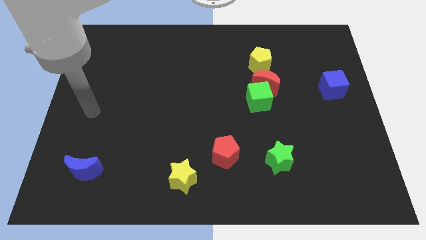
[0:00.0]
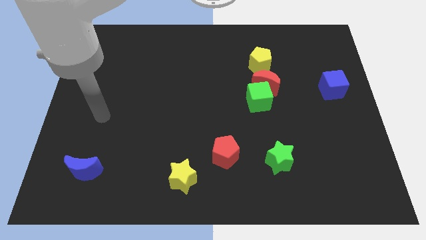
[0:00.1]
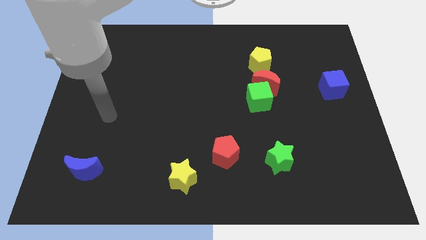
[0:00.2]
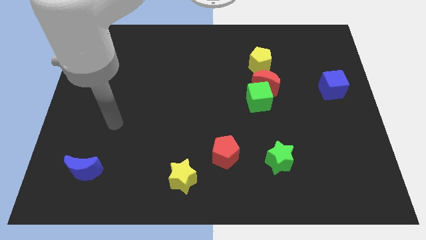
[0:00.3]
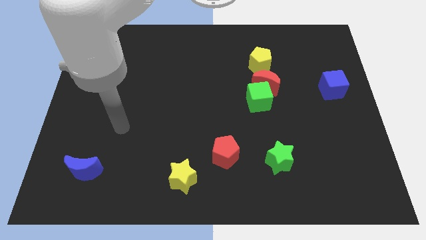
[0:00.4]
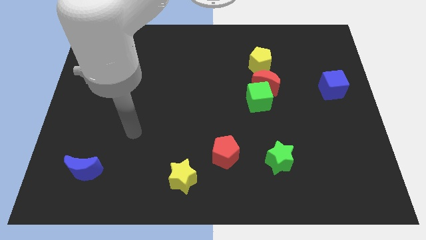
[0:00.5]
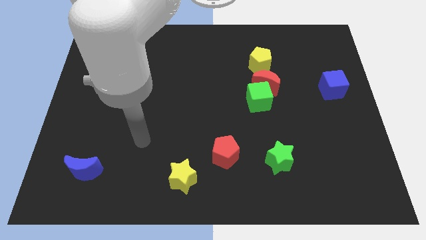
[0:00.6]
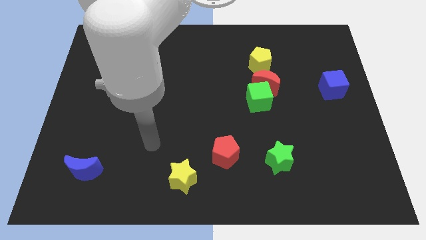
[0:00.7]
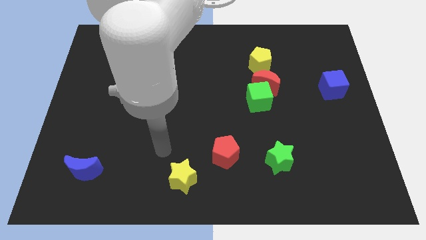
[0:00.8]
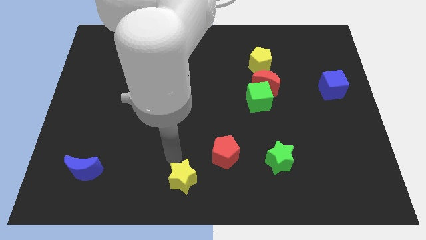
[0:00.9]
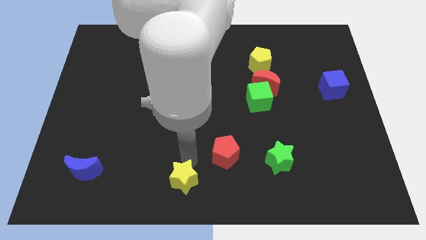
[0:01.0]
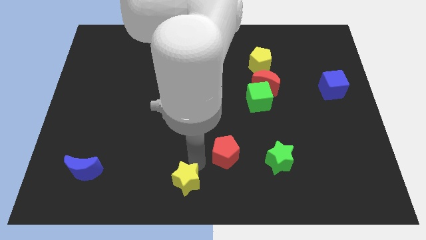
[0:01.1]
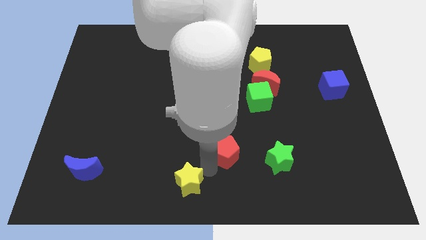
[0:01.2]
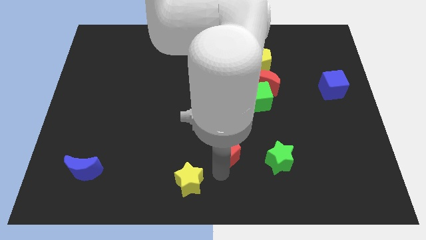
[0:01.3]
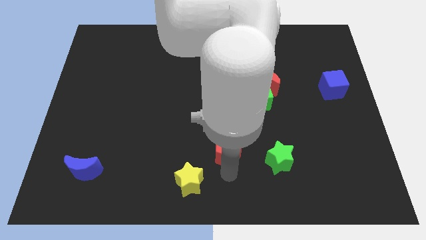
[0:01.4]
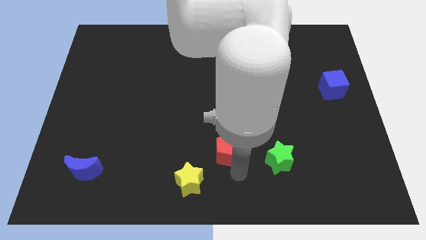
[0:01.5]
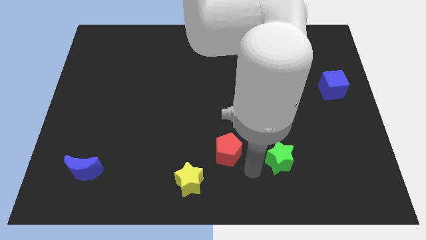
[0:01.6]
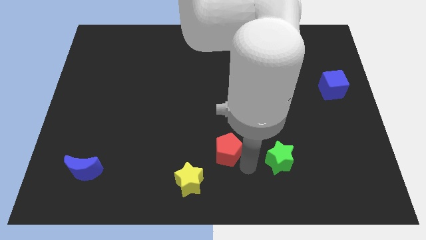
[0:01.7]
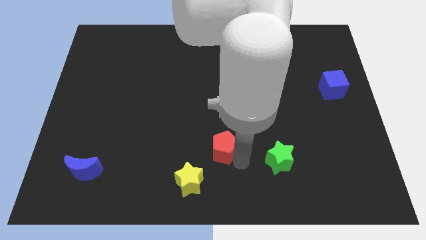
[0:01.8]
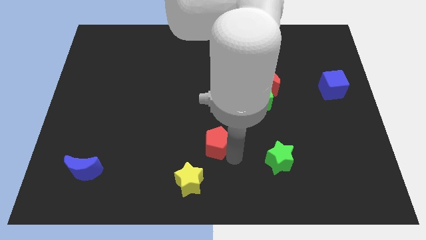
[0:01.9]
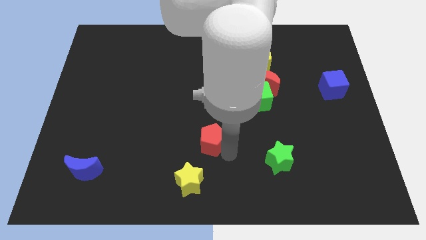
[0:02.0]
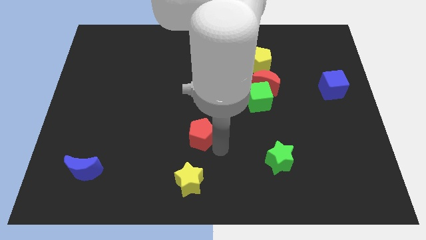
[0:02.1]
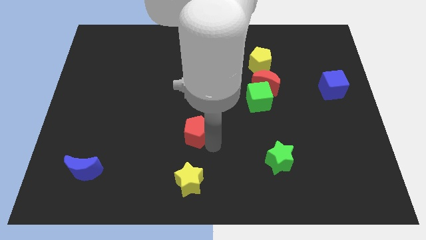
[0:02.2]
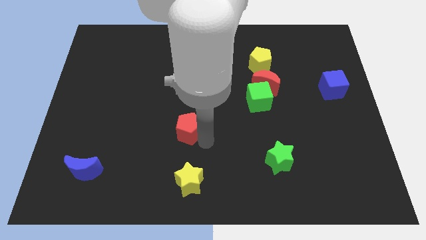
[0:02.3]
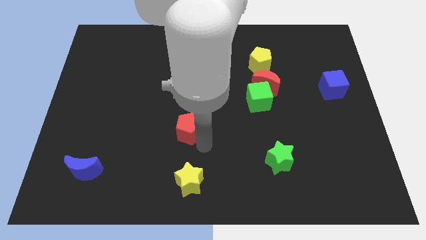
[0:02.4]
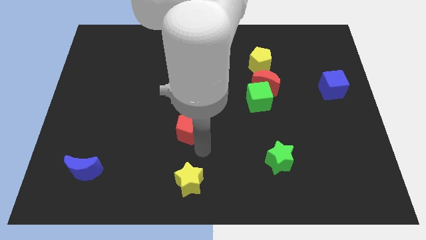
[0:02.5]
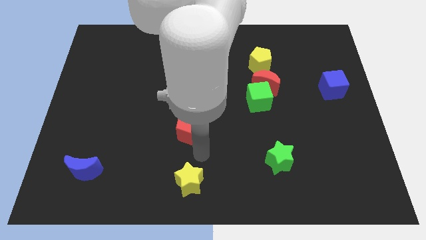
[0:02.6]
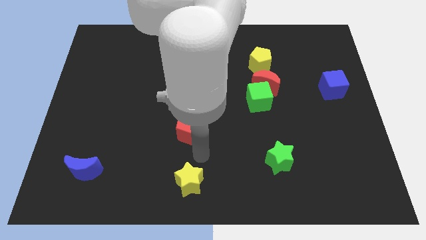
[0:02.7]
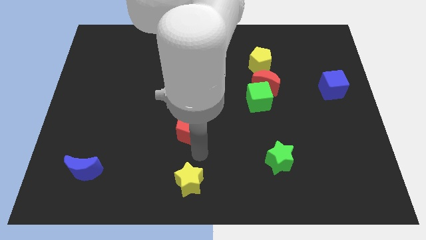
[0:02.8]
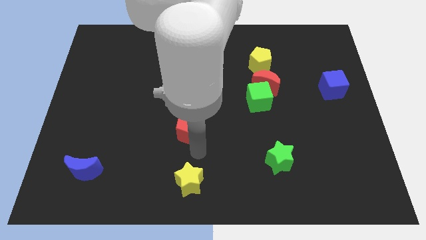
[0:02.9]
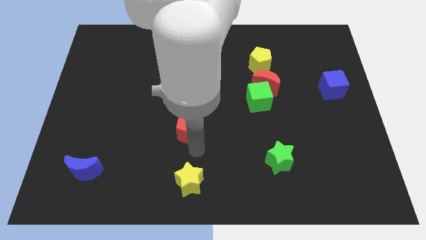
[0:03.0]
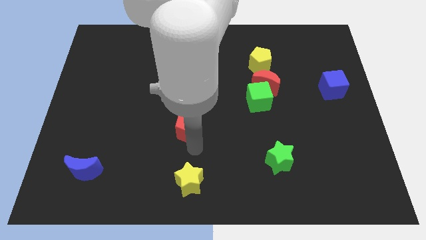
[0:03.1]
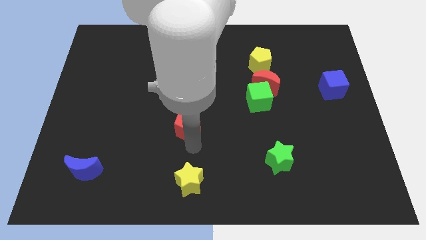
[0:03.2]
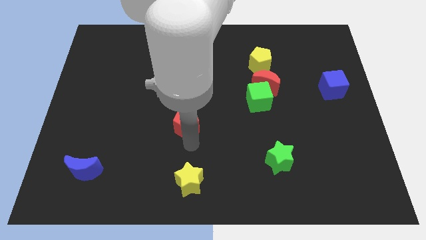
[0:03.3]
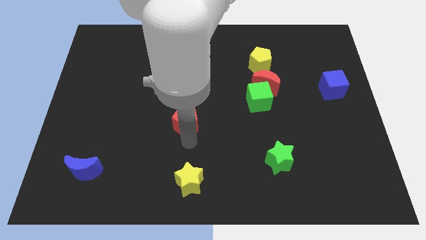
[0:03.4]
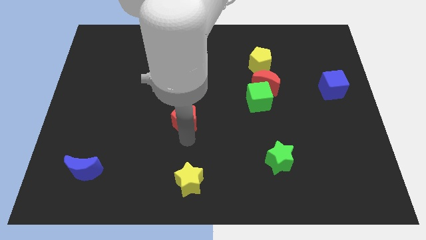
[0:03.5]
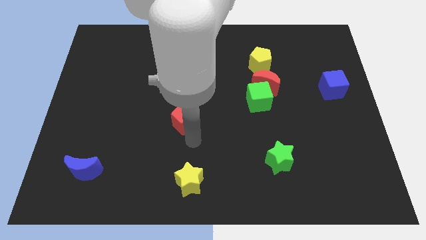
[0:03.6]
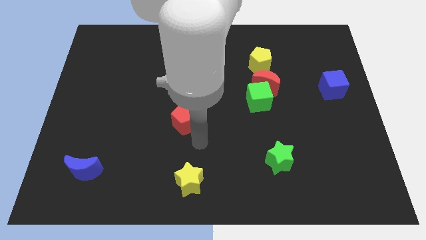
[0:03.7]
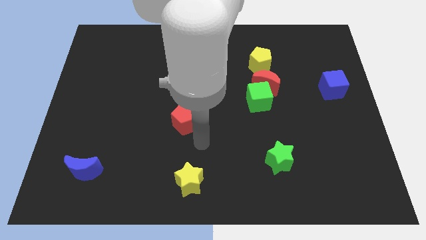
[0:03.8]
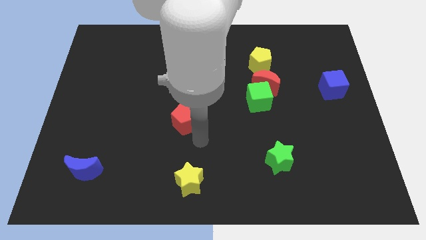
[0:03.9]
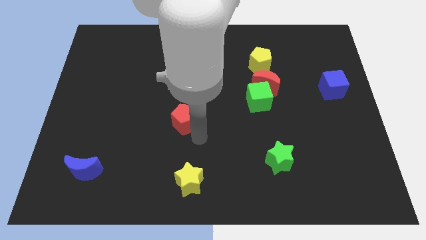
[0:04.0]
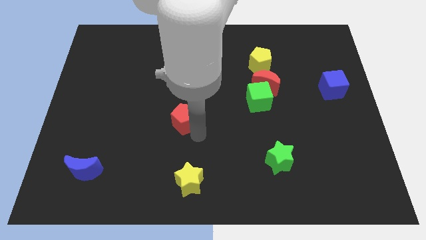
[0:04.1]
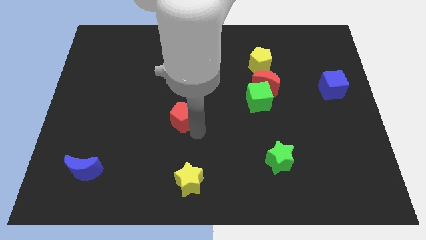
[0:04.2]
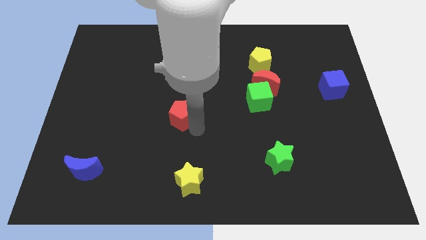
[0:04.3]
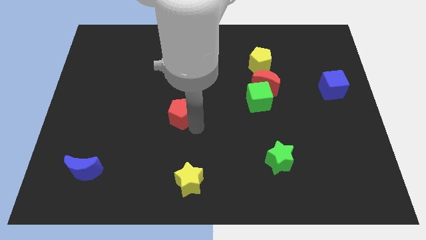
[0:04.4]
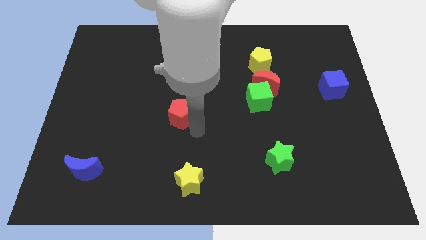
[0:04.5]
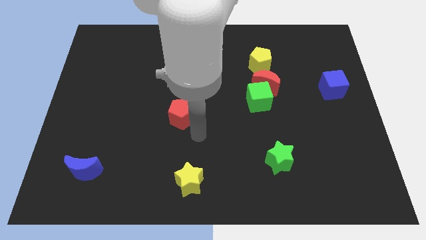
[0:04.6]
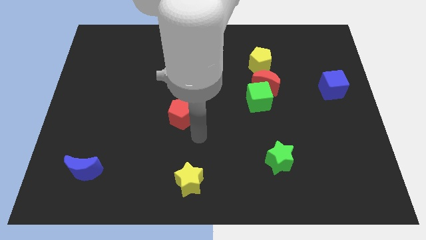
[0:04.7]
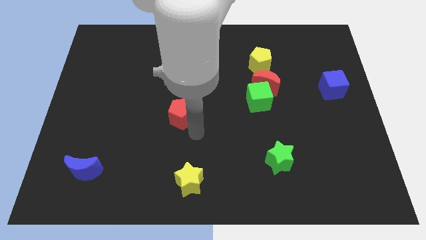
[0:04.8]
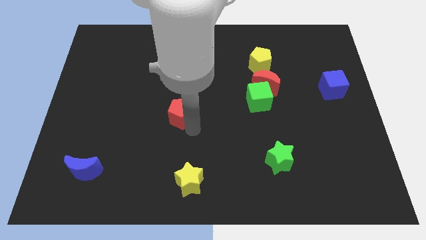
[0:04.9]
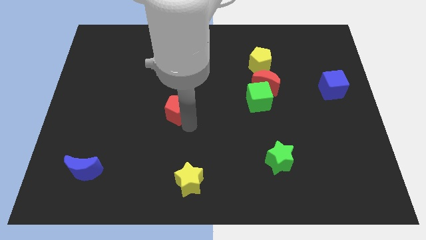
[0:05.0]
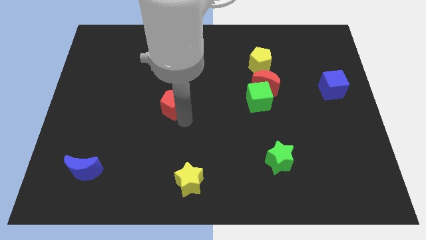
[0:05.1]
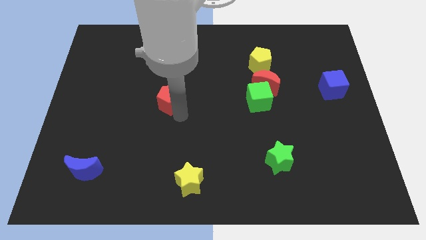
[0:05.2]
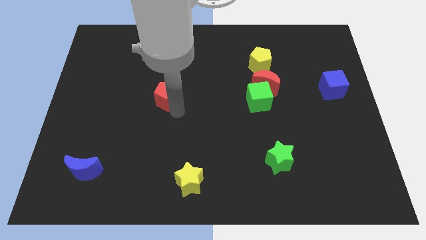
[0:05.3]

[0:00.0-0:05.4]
push the red pentagon upwards and then to the left

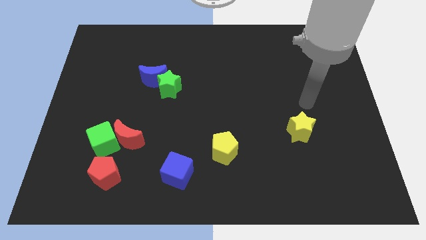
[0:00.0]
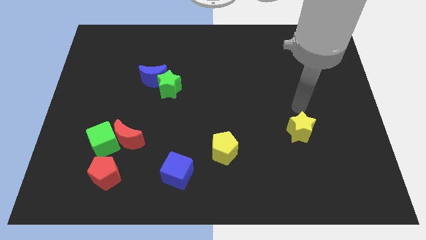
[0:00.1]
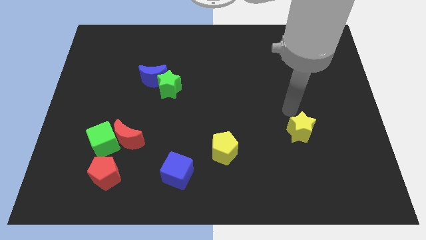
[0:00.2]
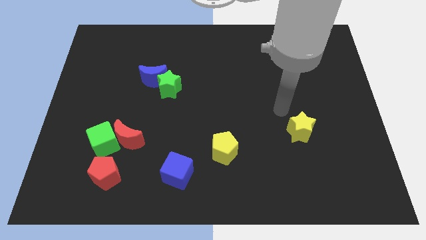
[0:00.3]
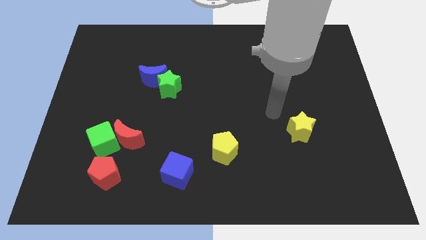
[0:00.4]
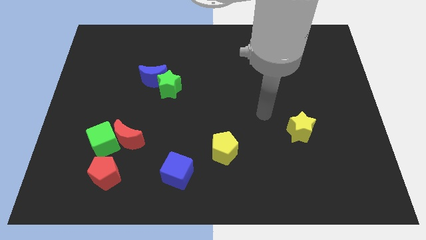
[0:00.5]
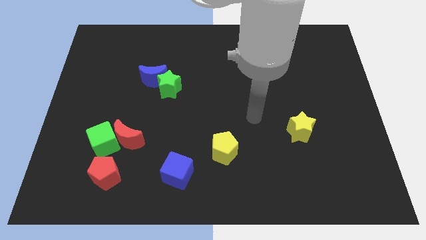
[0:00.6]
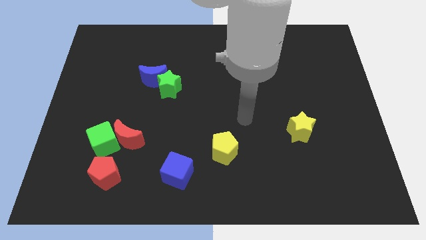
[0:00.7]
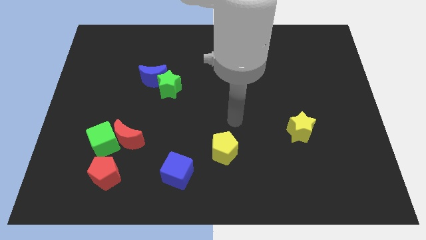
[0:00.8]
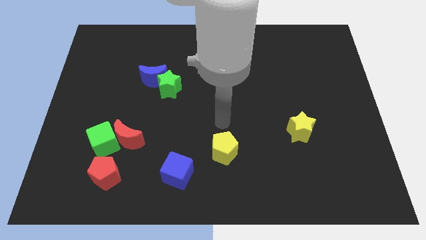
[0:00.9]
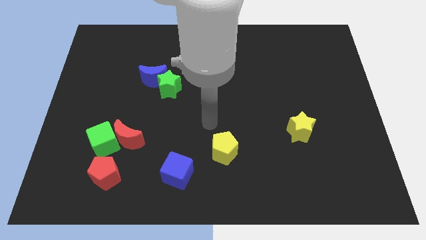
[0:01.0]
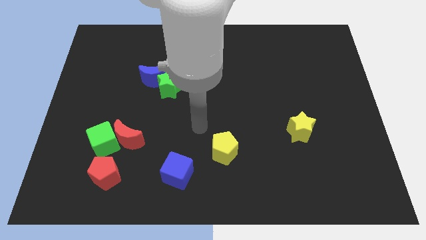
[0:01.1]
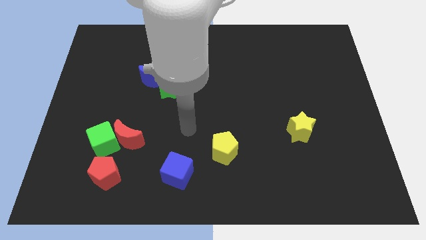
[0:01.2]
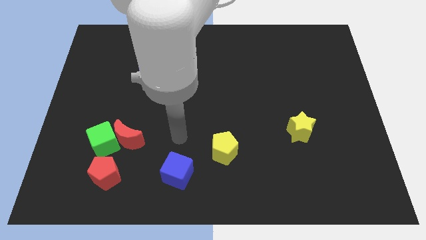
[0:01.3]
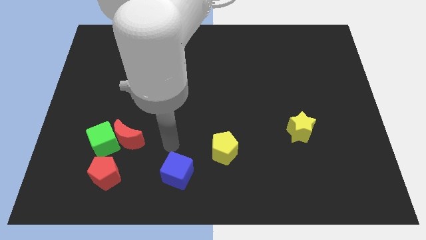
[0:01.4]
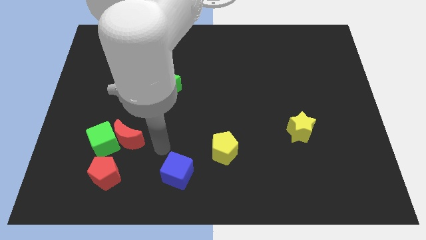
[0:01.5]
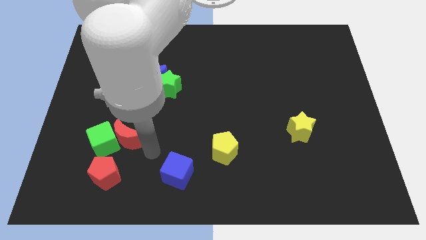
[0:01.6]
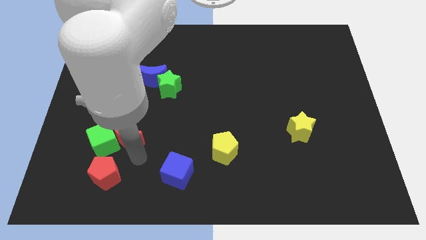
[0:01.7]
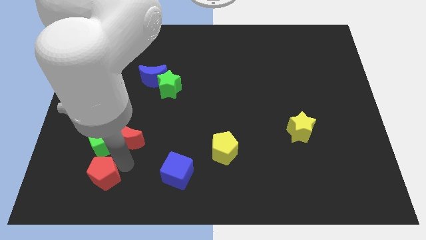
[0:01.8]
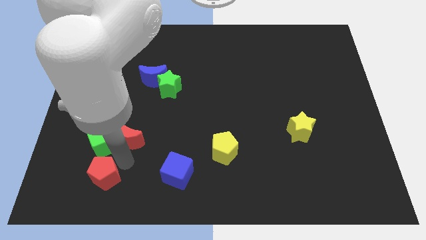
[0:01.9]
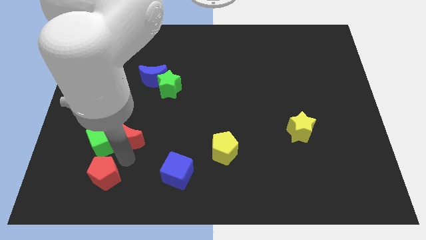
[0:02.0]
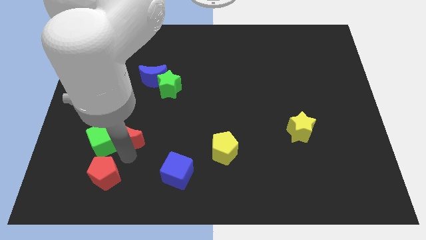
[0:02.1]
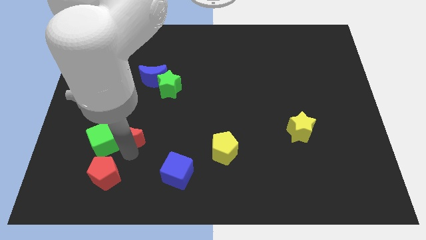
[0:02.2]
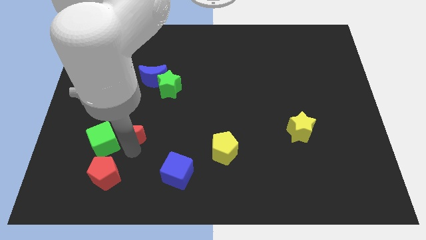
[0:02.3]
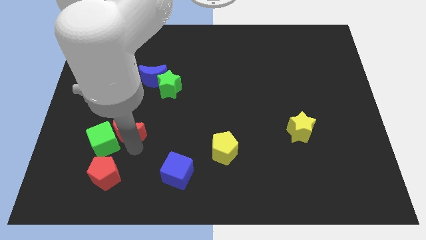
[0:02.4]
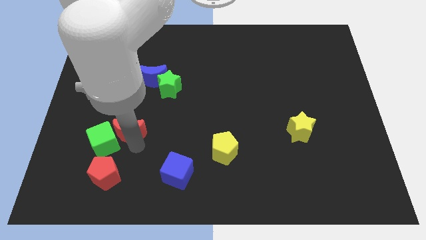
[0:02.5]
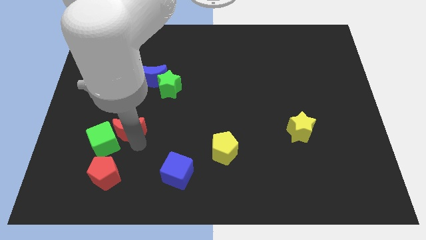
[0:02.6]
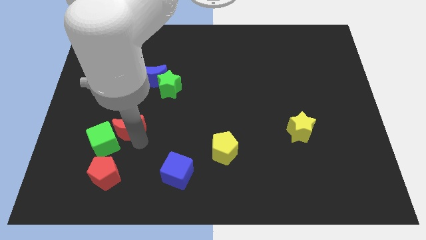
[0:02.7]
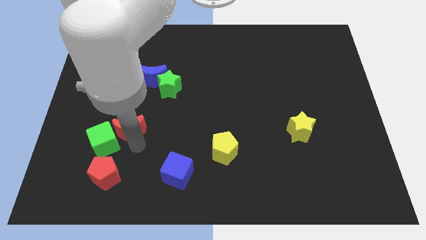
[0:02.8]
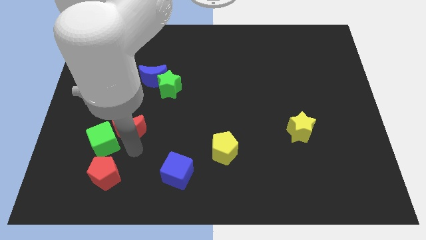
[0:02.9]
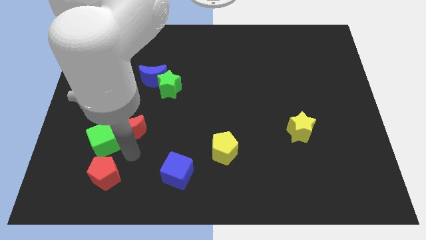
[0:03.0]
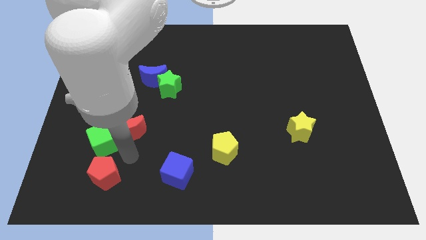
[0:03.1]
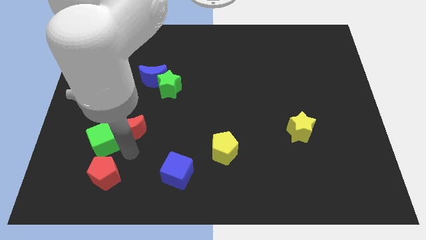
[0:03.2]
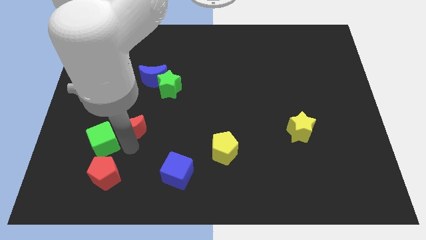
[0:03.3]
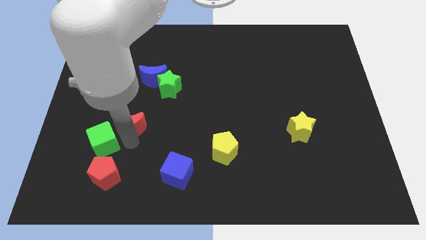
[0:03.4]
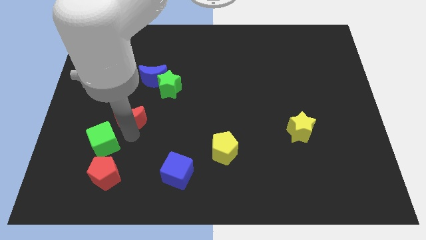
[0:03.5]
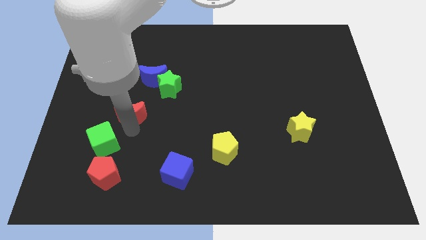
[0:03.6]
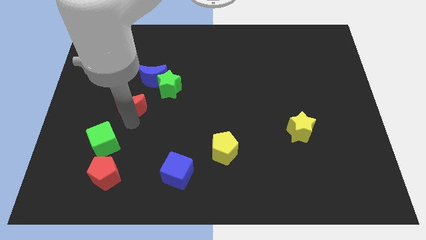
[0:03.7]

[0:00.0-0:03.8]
push the red moon up a bit
